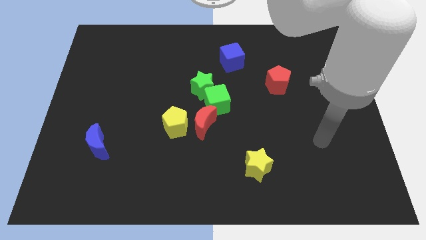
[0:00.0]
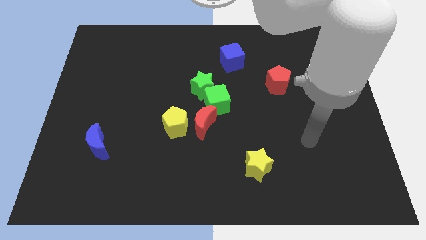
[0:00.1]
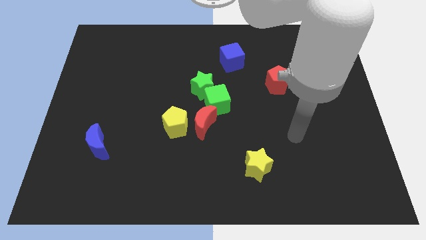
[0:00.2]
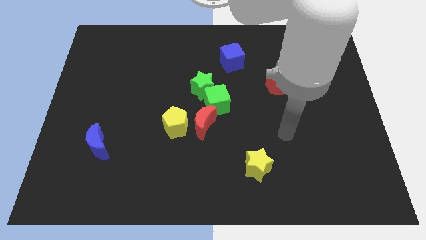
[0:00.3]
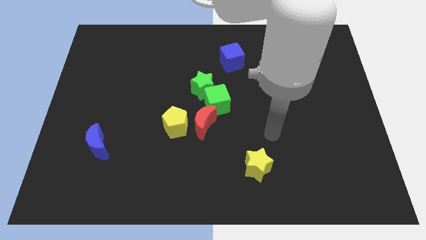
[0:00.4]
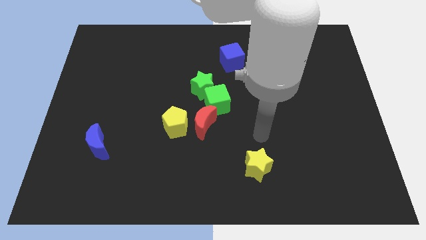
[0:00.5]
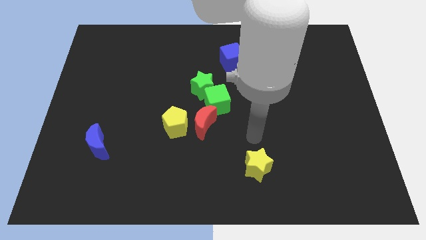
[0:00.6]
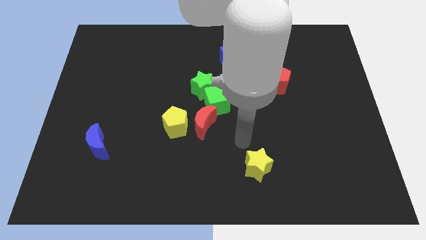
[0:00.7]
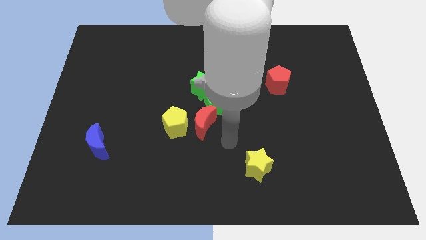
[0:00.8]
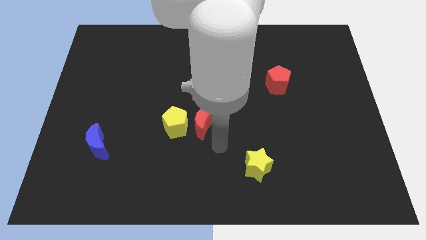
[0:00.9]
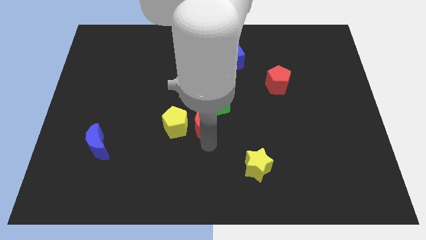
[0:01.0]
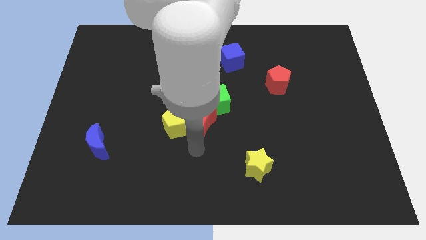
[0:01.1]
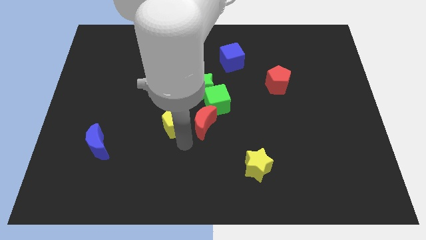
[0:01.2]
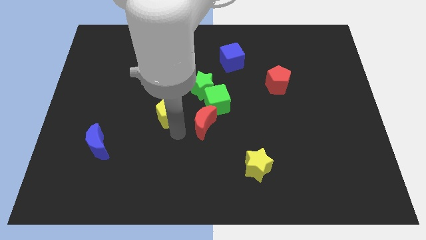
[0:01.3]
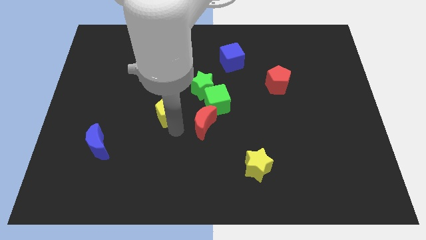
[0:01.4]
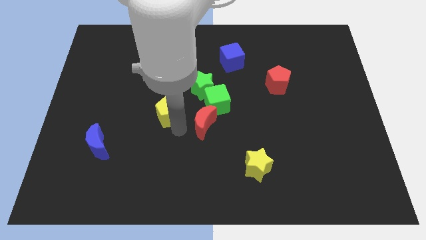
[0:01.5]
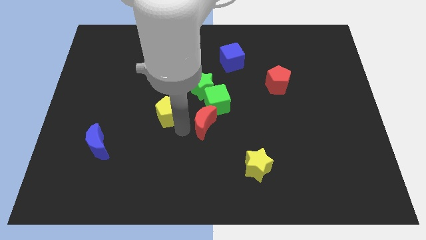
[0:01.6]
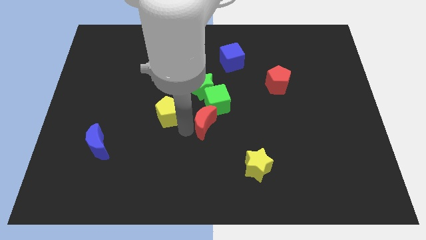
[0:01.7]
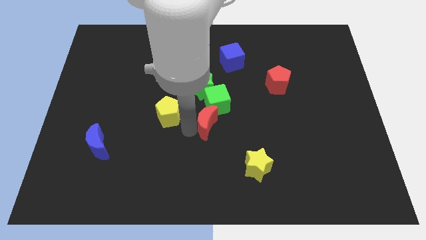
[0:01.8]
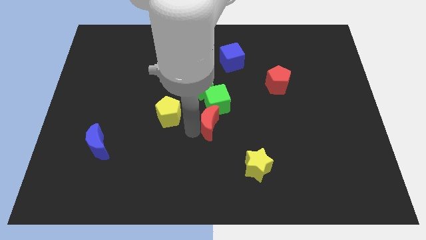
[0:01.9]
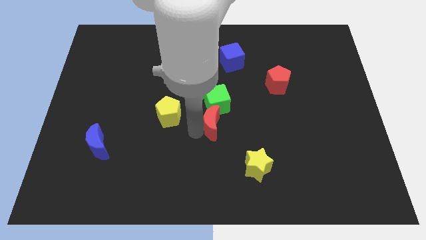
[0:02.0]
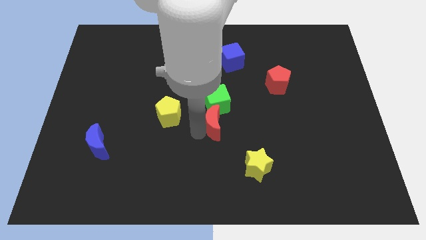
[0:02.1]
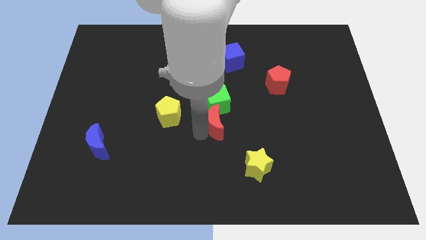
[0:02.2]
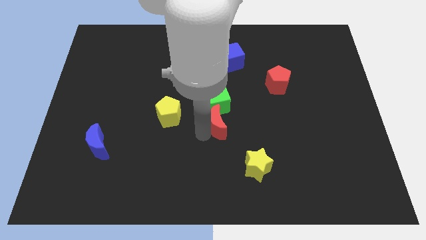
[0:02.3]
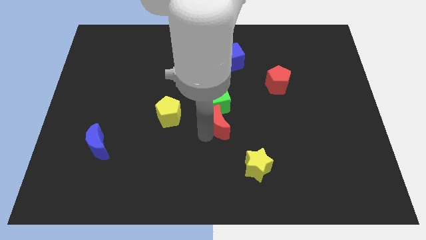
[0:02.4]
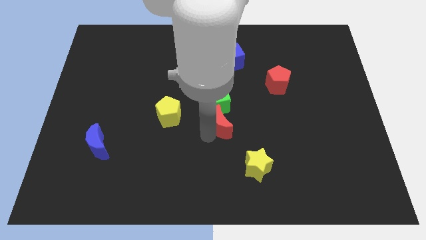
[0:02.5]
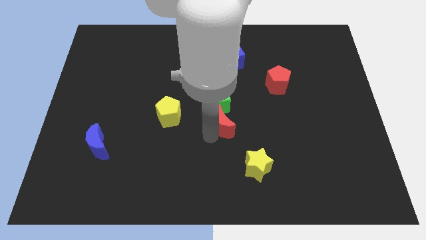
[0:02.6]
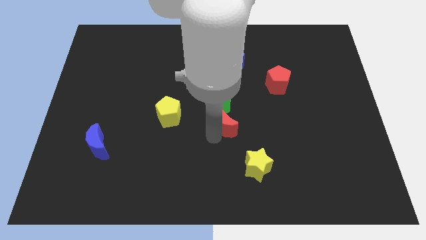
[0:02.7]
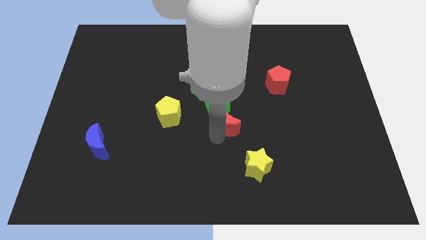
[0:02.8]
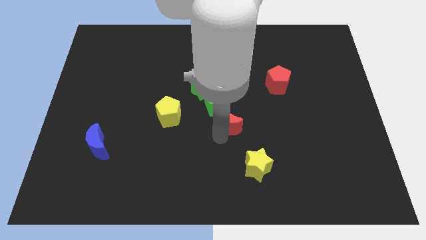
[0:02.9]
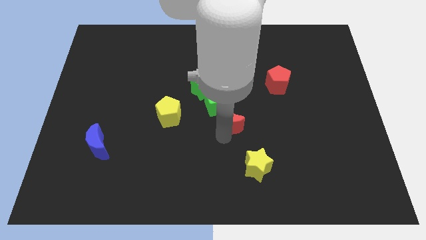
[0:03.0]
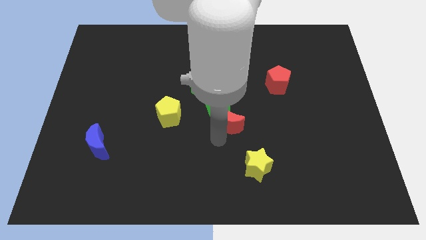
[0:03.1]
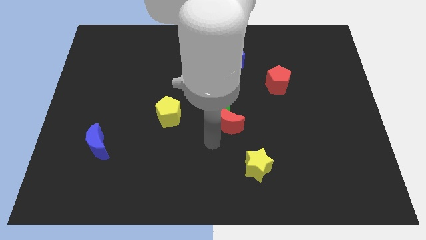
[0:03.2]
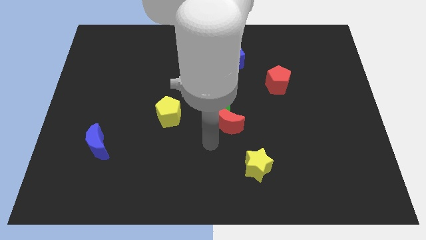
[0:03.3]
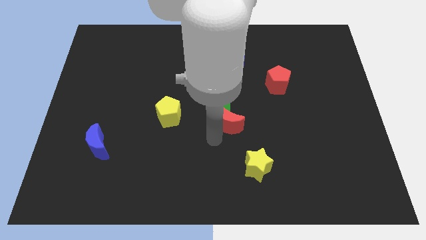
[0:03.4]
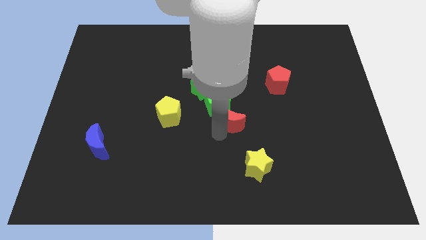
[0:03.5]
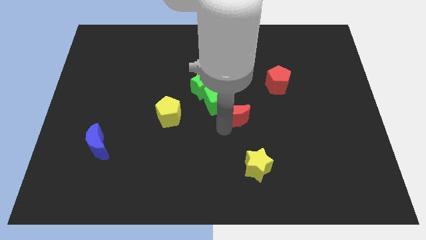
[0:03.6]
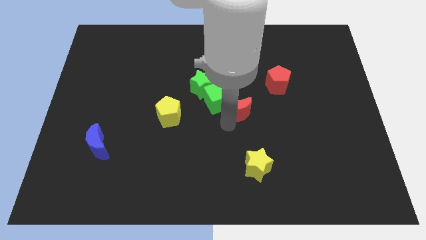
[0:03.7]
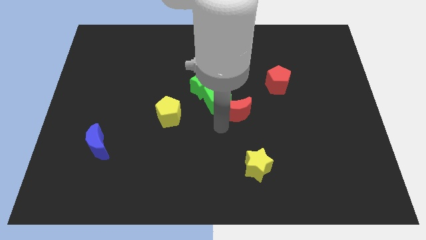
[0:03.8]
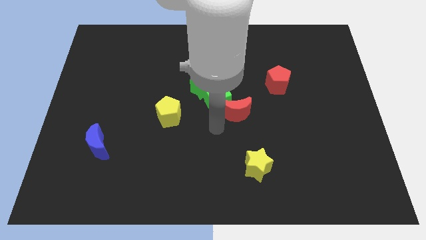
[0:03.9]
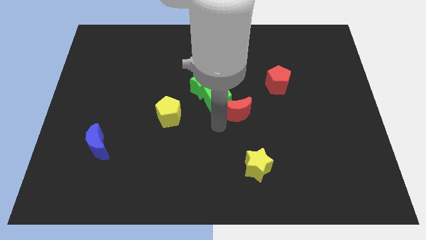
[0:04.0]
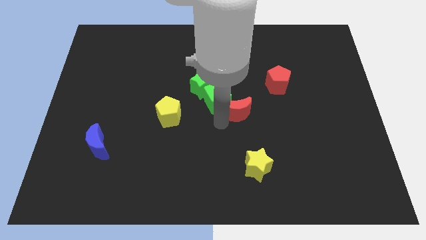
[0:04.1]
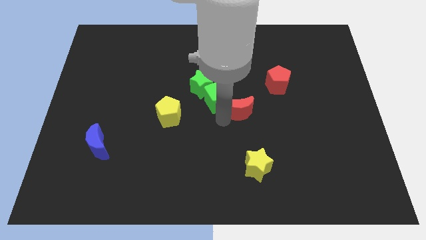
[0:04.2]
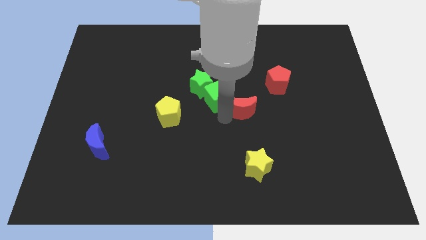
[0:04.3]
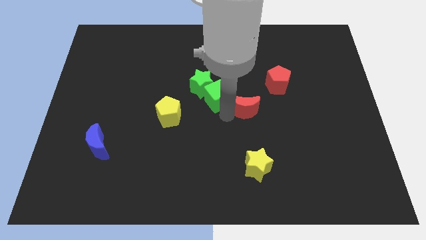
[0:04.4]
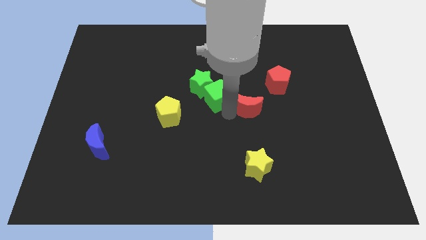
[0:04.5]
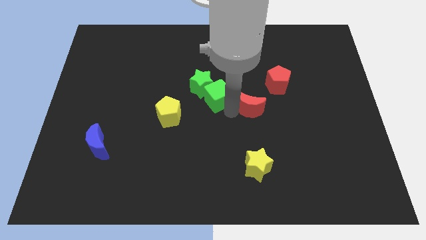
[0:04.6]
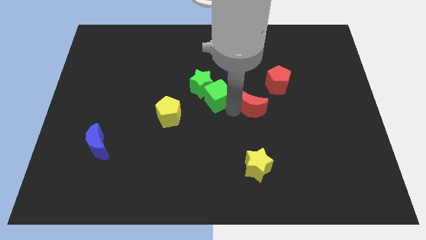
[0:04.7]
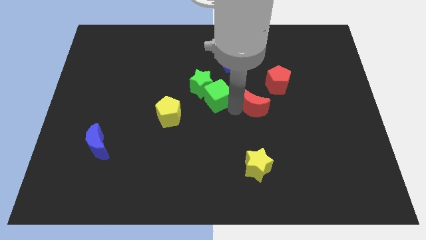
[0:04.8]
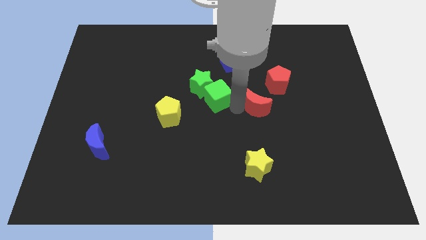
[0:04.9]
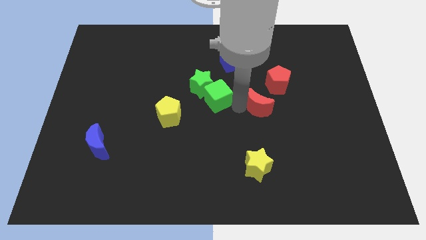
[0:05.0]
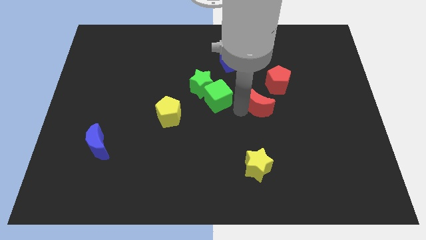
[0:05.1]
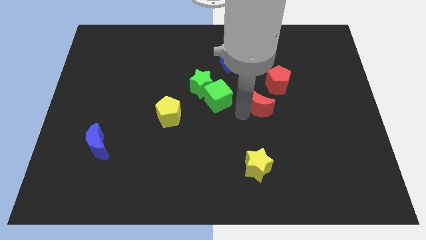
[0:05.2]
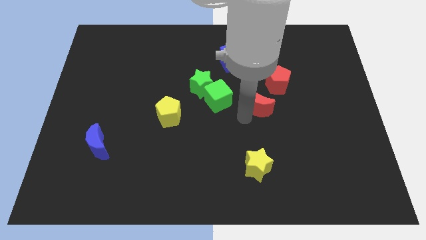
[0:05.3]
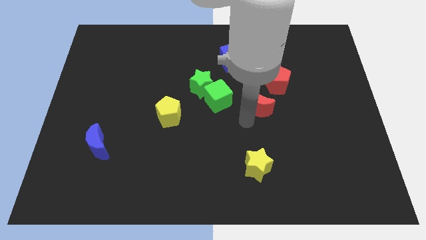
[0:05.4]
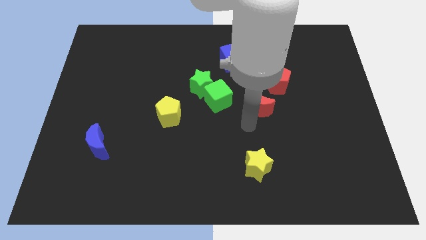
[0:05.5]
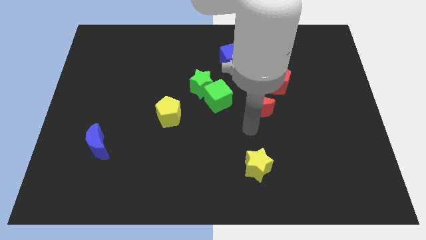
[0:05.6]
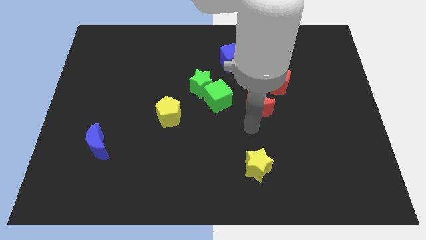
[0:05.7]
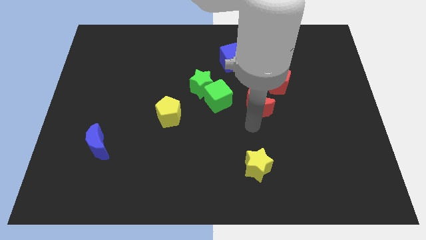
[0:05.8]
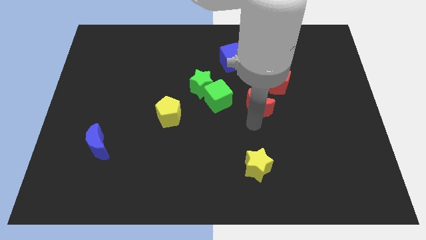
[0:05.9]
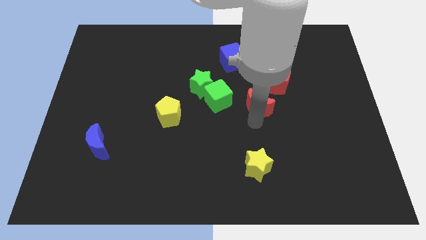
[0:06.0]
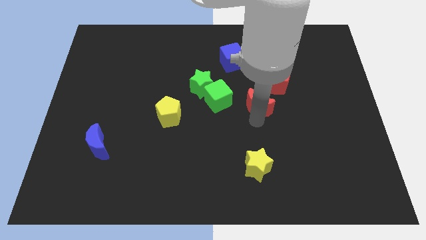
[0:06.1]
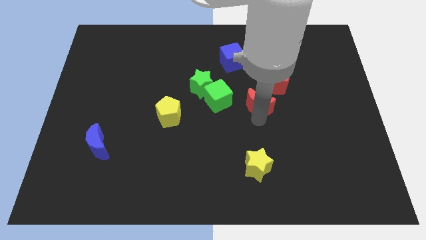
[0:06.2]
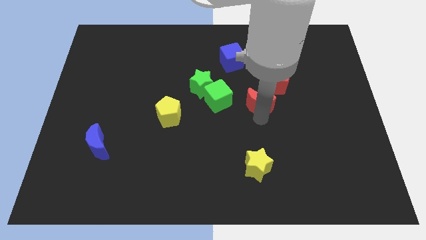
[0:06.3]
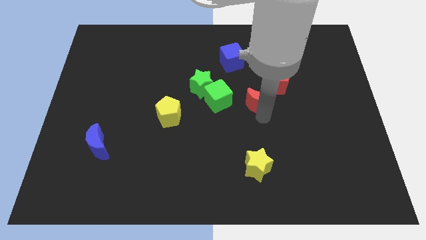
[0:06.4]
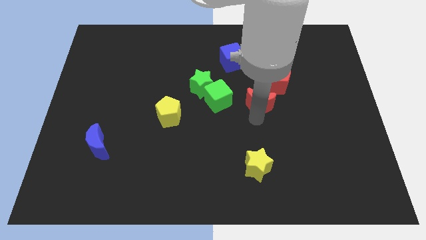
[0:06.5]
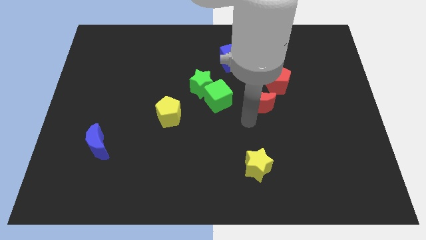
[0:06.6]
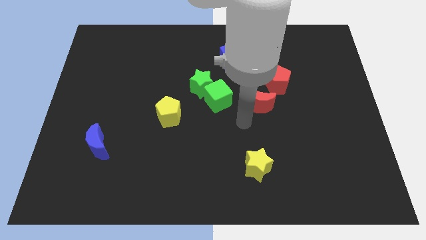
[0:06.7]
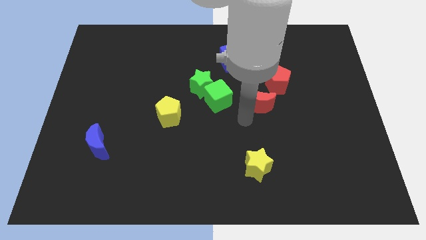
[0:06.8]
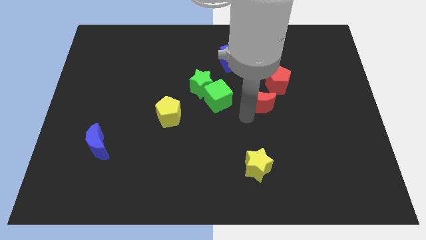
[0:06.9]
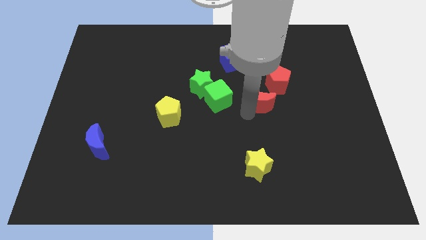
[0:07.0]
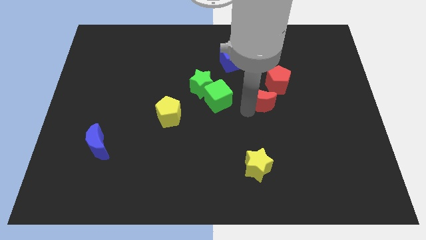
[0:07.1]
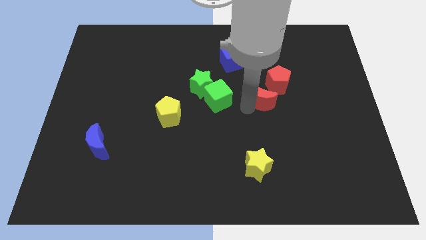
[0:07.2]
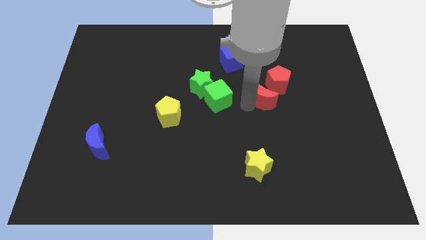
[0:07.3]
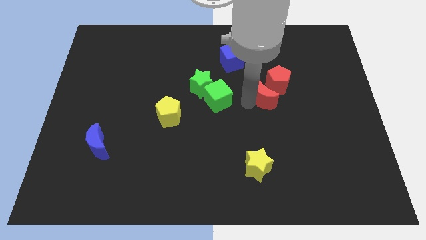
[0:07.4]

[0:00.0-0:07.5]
slide the red moon close to the red pentagon

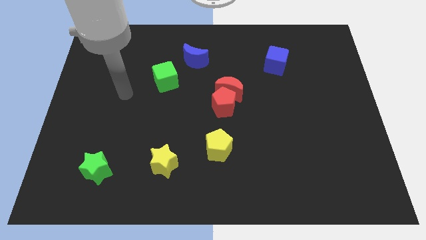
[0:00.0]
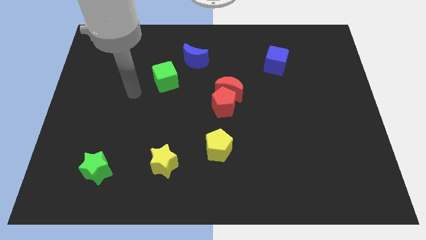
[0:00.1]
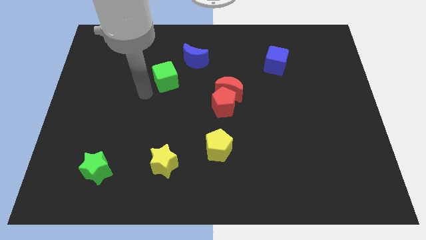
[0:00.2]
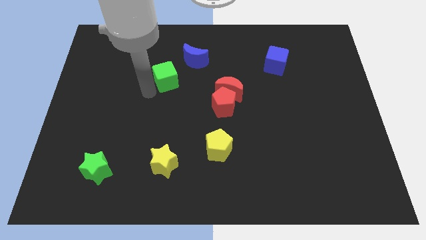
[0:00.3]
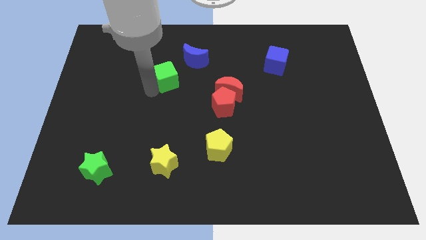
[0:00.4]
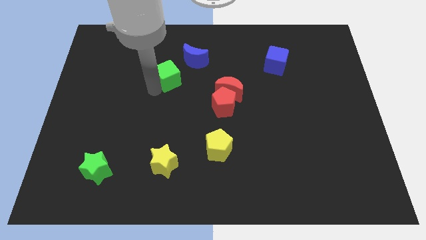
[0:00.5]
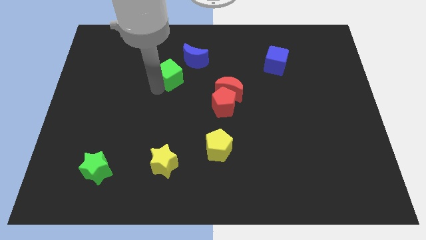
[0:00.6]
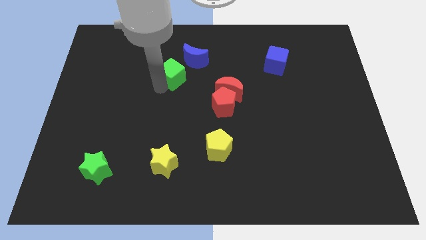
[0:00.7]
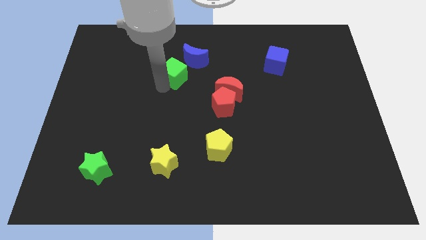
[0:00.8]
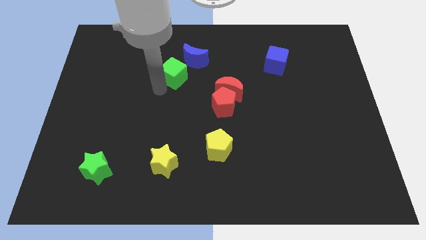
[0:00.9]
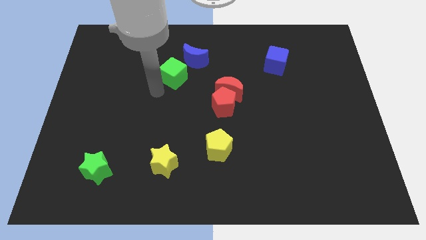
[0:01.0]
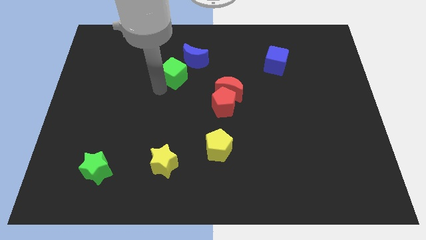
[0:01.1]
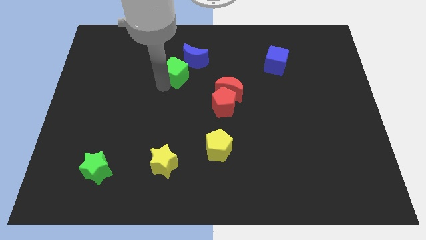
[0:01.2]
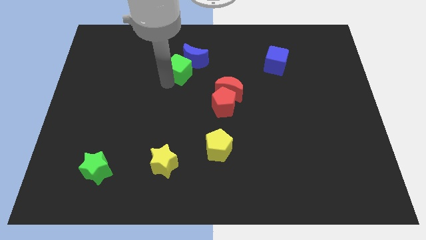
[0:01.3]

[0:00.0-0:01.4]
push the green cube to the blue moon
